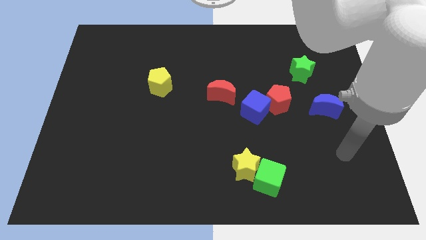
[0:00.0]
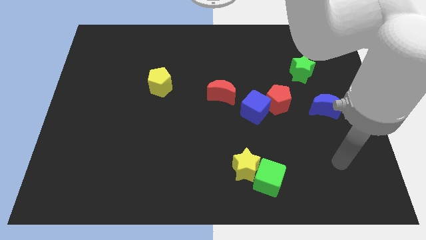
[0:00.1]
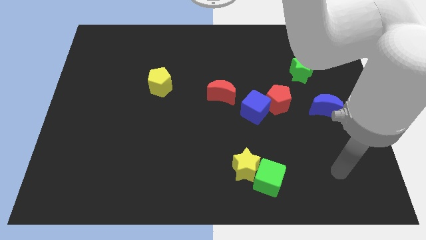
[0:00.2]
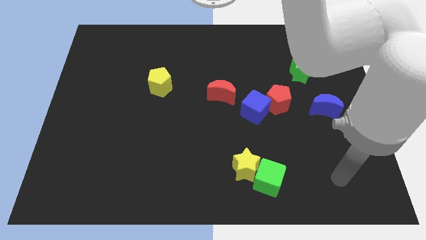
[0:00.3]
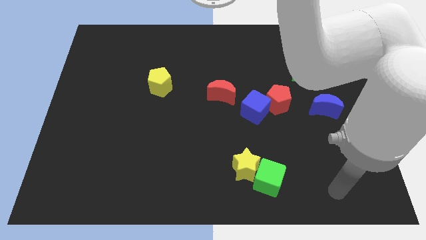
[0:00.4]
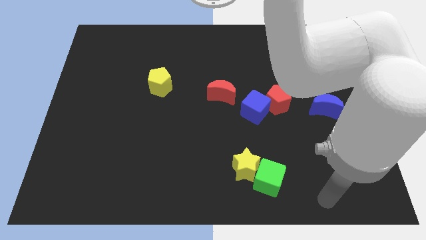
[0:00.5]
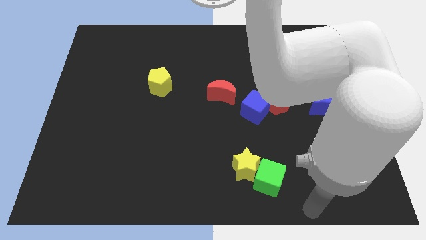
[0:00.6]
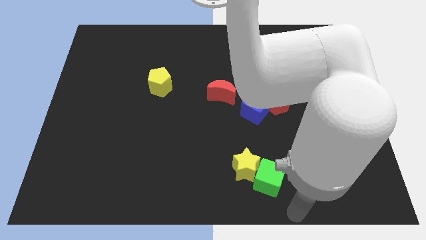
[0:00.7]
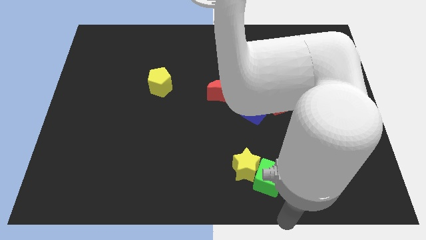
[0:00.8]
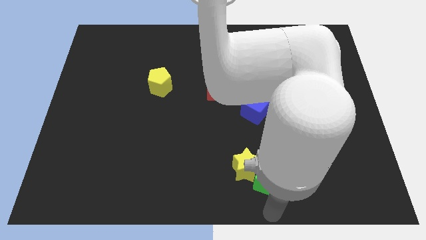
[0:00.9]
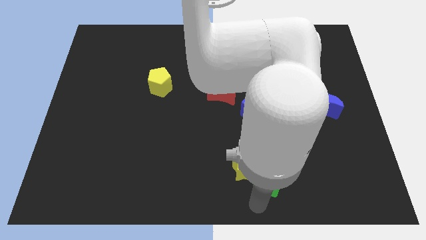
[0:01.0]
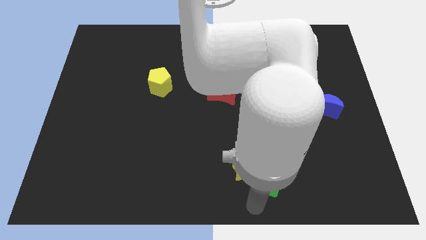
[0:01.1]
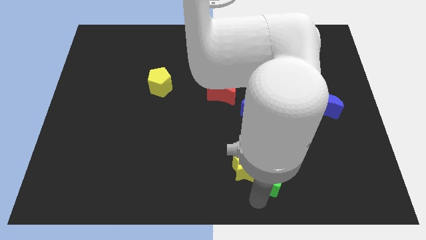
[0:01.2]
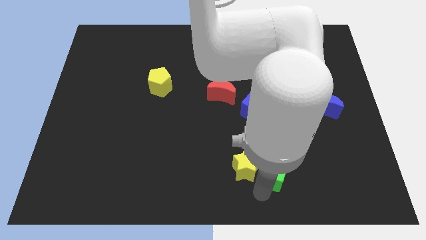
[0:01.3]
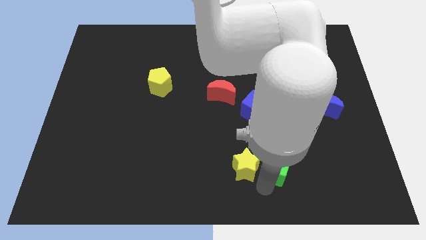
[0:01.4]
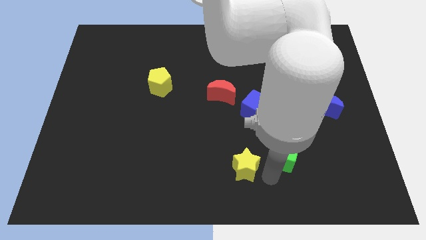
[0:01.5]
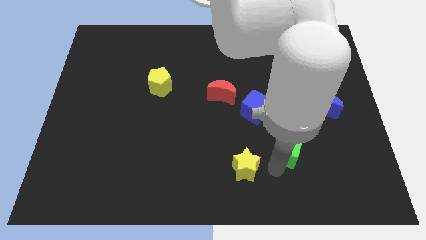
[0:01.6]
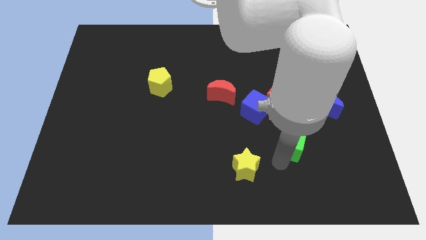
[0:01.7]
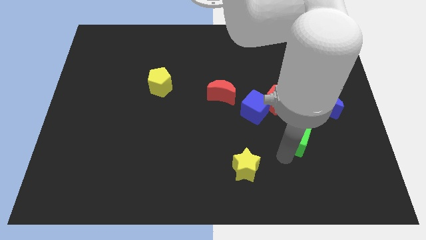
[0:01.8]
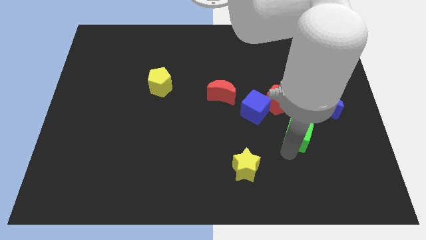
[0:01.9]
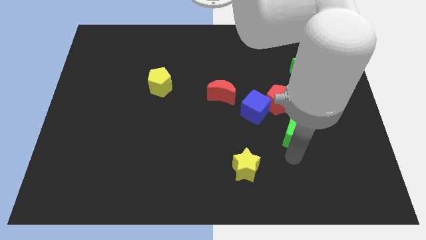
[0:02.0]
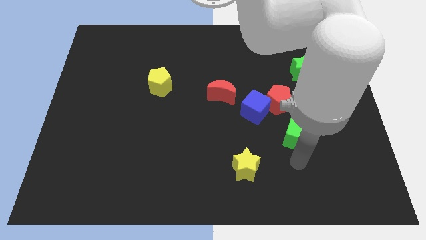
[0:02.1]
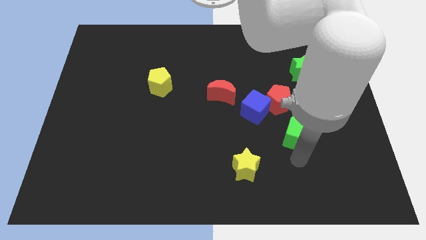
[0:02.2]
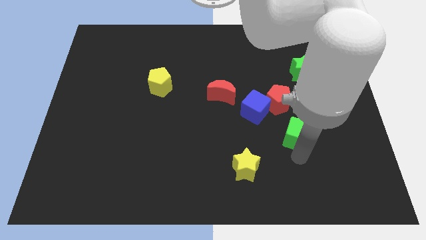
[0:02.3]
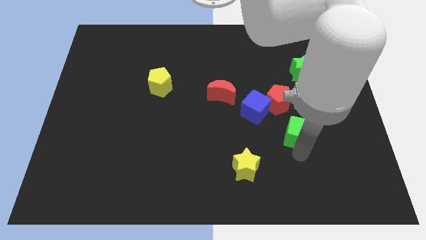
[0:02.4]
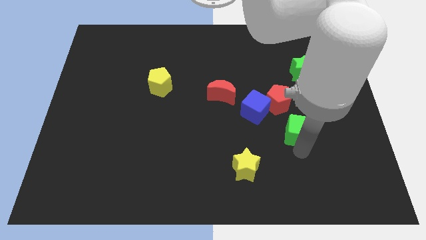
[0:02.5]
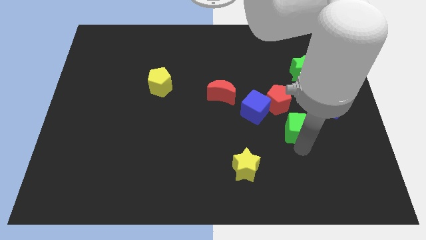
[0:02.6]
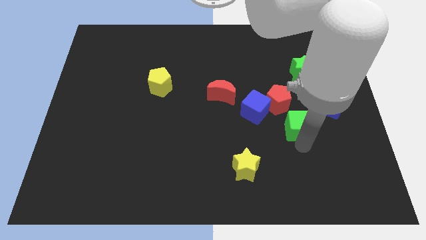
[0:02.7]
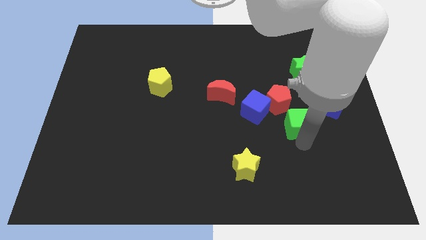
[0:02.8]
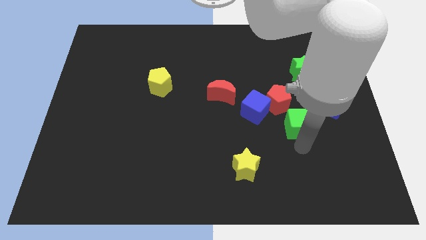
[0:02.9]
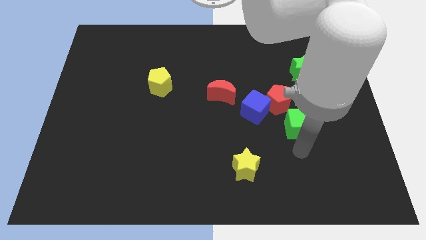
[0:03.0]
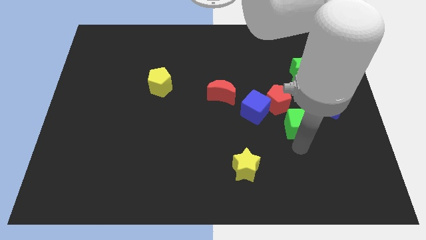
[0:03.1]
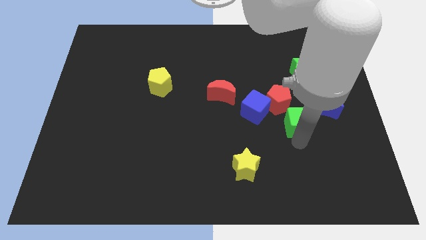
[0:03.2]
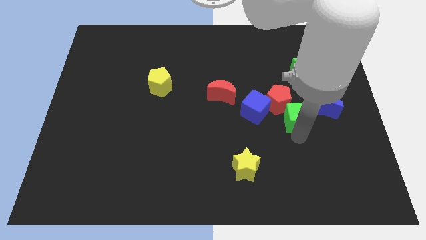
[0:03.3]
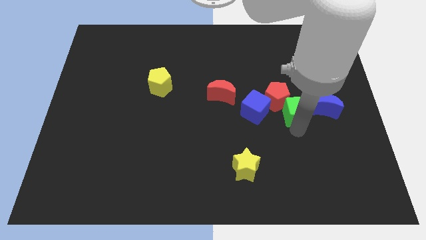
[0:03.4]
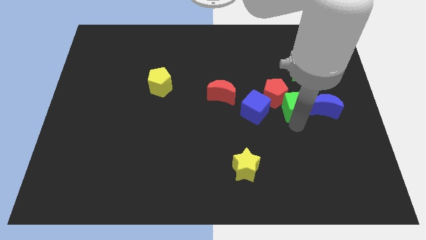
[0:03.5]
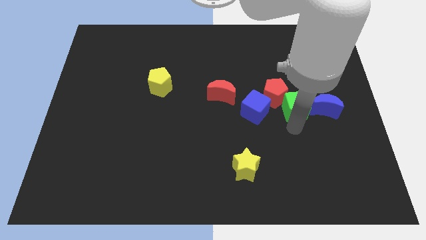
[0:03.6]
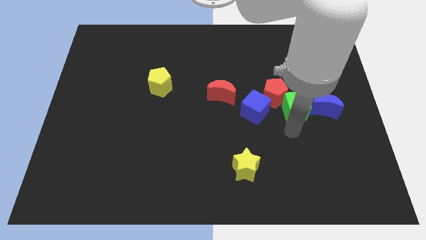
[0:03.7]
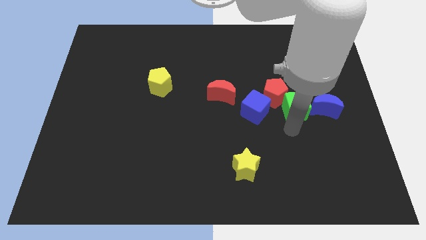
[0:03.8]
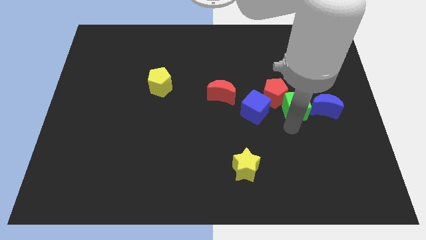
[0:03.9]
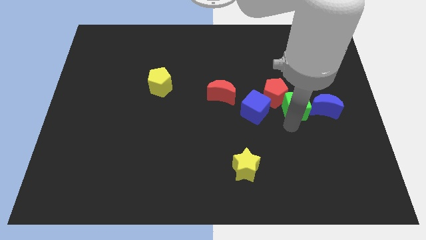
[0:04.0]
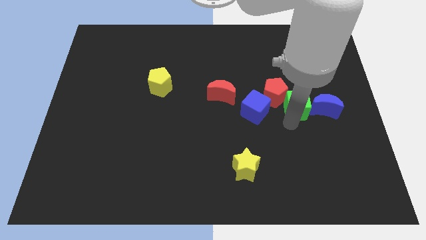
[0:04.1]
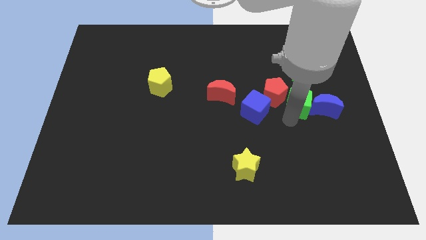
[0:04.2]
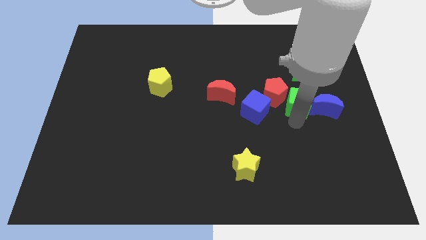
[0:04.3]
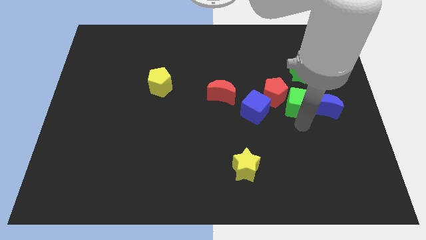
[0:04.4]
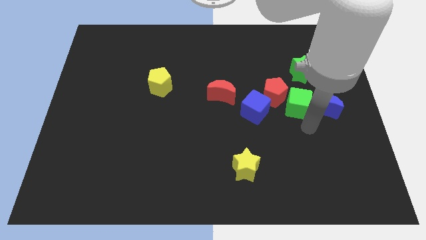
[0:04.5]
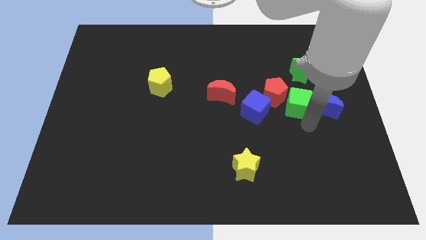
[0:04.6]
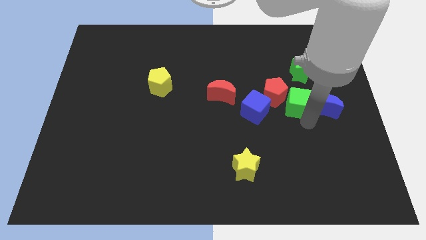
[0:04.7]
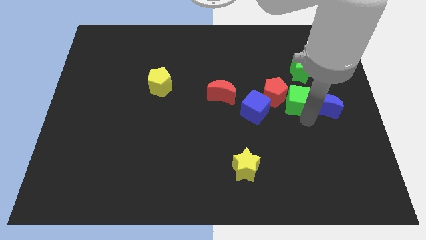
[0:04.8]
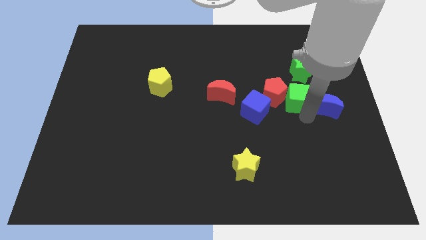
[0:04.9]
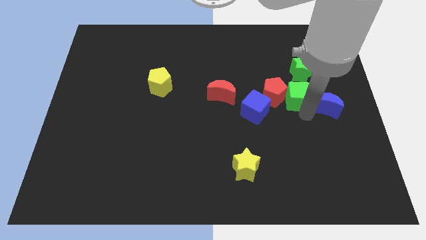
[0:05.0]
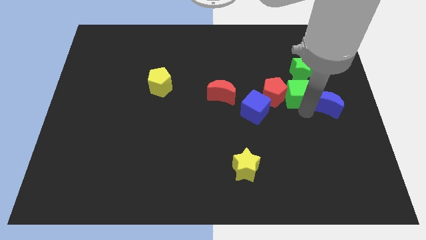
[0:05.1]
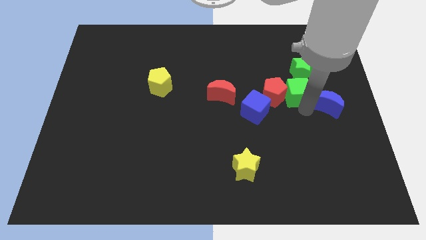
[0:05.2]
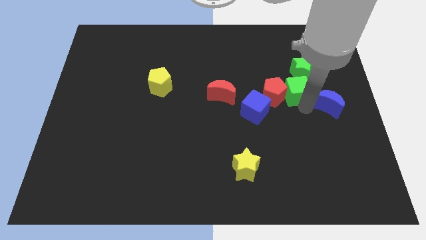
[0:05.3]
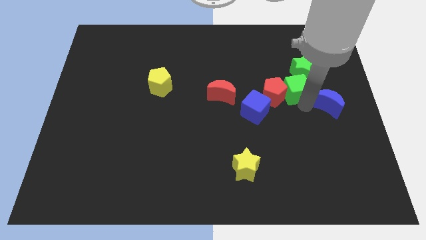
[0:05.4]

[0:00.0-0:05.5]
move the green cube upwards

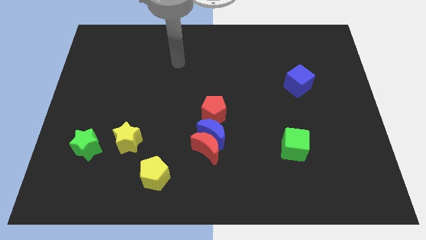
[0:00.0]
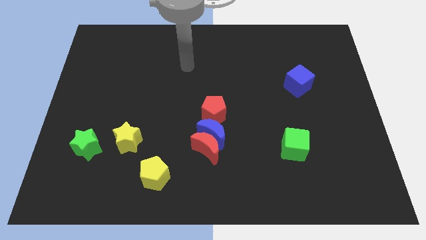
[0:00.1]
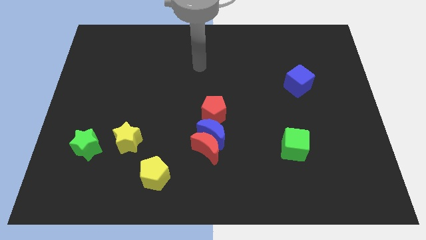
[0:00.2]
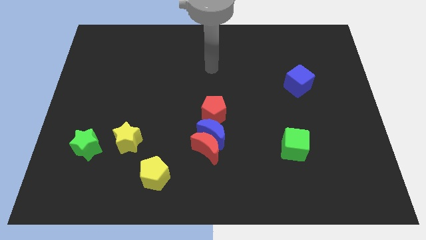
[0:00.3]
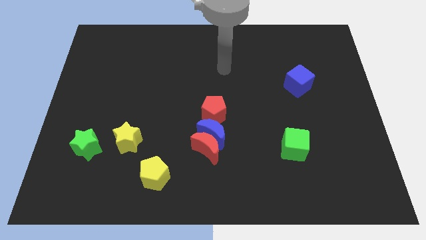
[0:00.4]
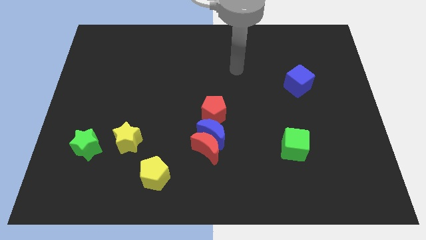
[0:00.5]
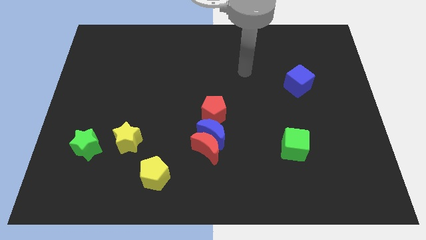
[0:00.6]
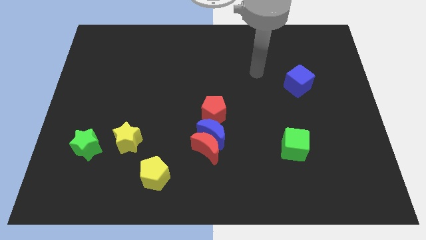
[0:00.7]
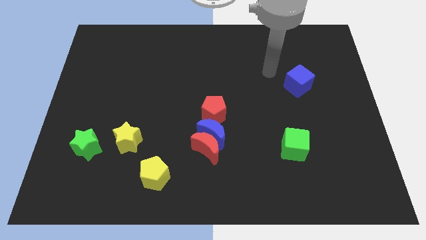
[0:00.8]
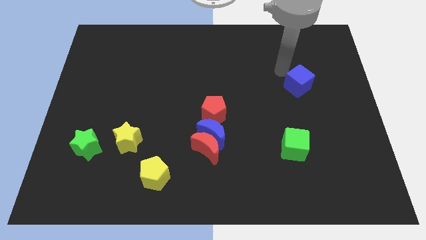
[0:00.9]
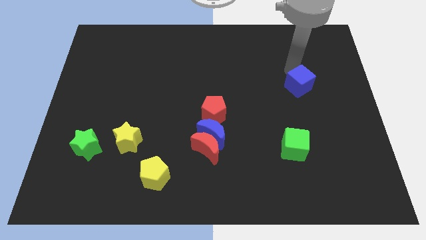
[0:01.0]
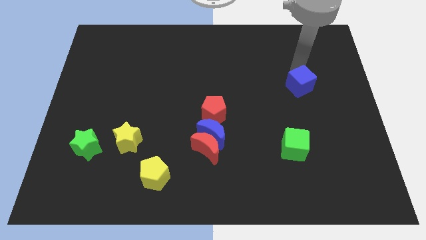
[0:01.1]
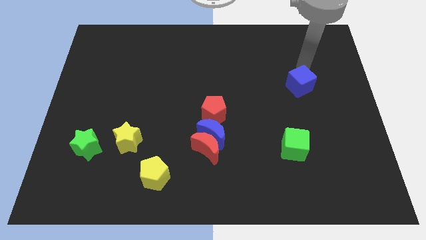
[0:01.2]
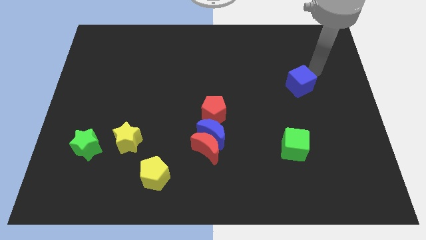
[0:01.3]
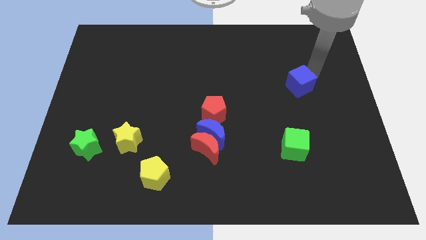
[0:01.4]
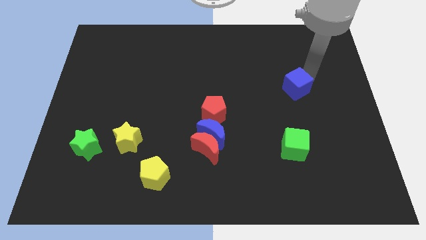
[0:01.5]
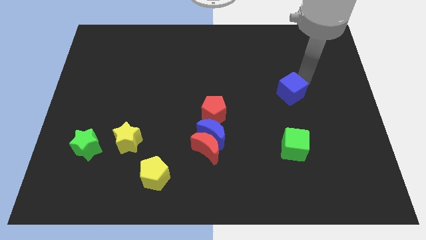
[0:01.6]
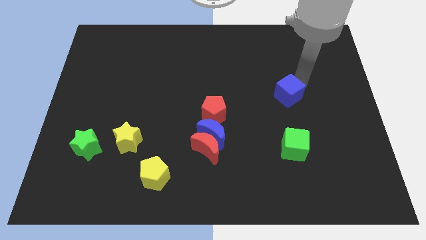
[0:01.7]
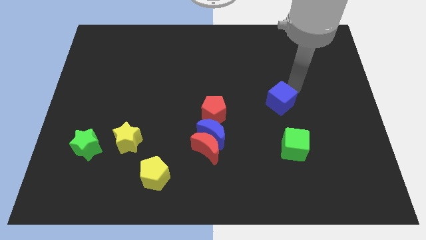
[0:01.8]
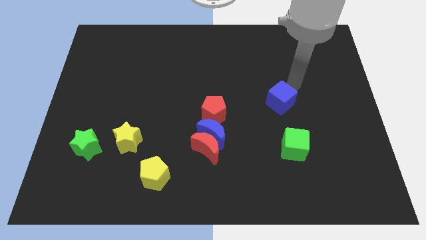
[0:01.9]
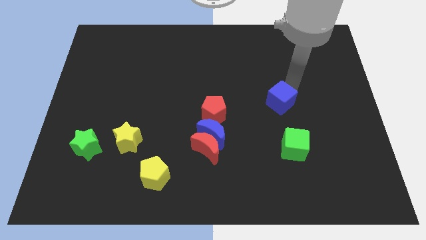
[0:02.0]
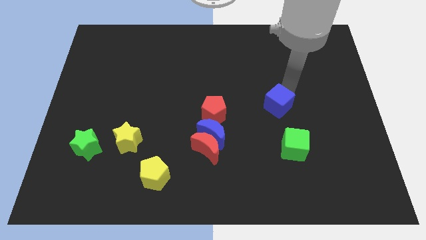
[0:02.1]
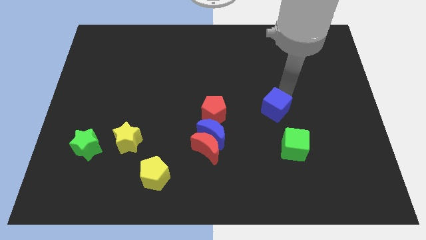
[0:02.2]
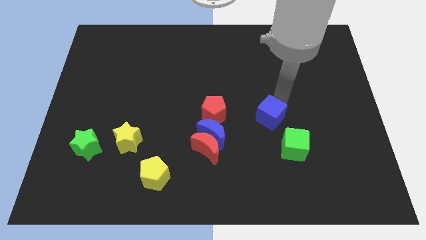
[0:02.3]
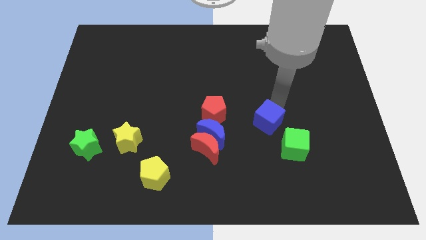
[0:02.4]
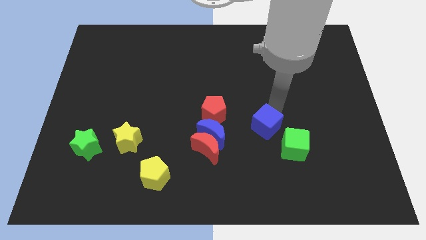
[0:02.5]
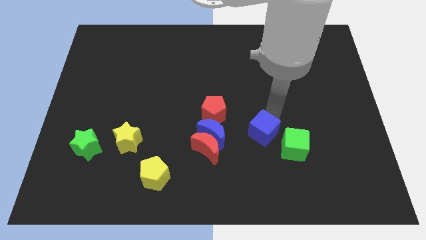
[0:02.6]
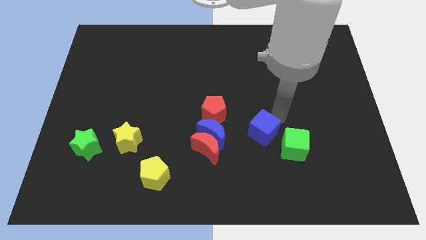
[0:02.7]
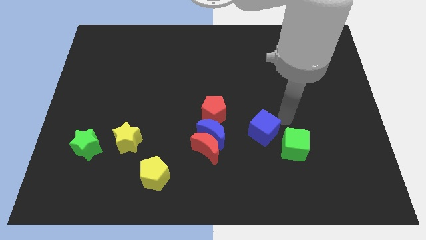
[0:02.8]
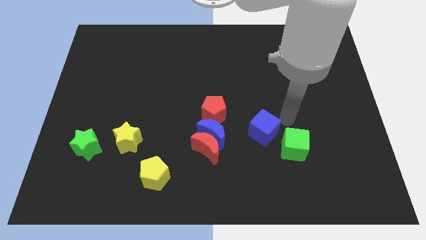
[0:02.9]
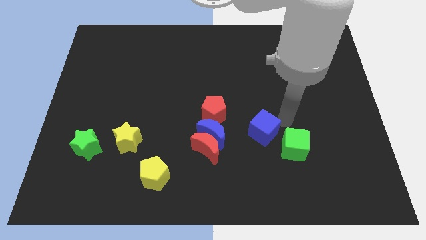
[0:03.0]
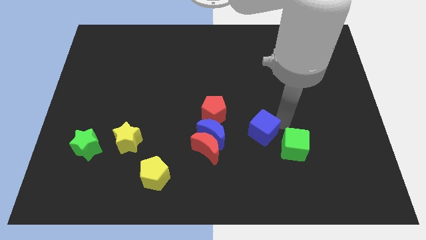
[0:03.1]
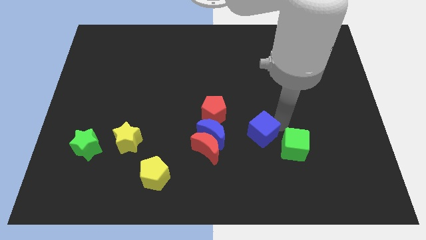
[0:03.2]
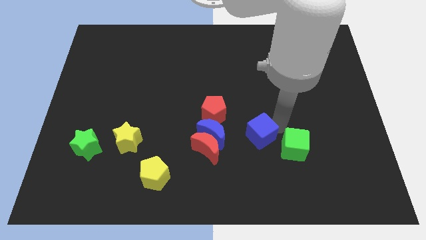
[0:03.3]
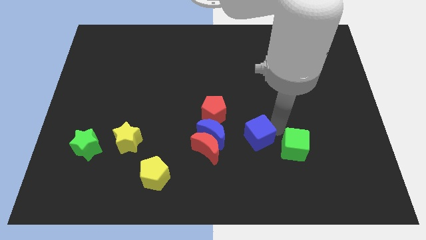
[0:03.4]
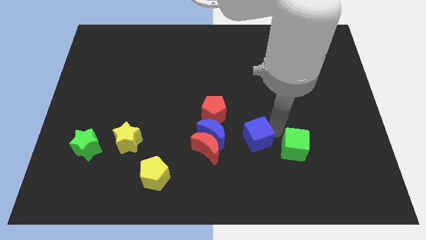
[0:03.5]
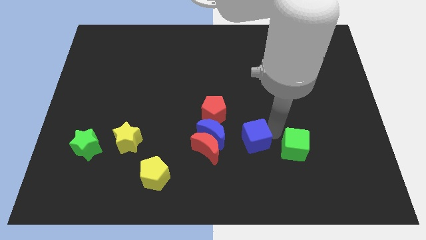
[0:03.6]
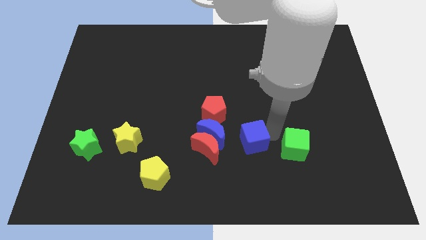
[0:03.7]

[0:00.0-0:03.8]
push the blue cube down and to the left
